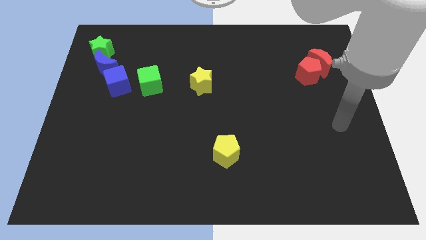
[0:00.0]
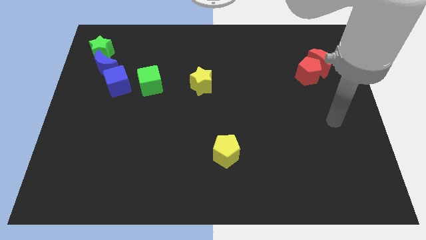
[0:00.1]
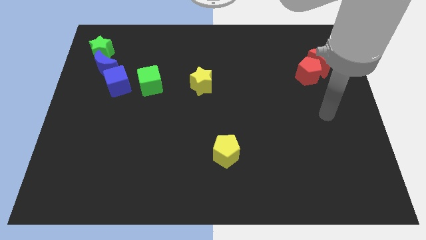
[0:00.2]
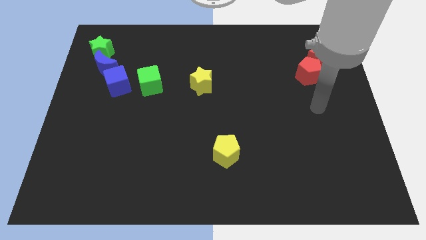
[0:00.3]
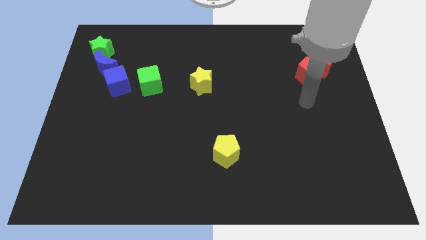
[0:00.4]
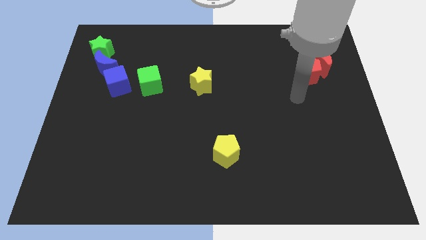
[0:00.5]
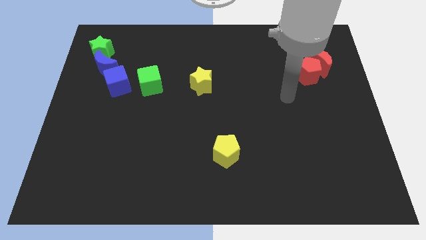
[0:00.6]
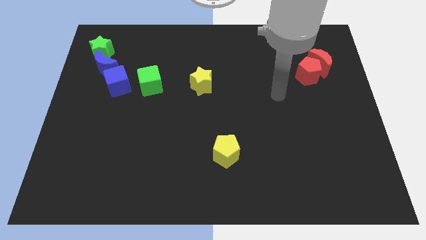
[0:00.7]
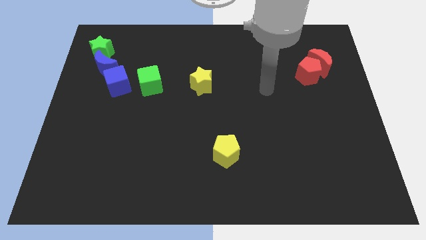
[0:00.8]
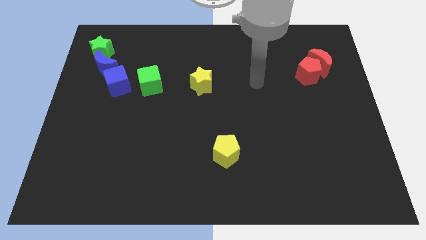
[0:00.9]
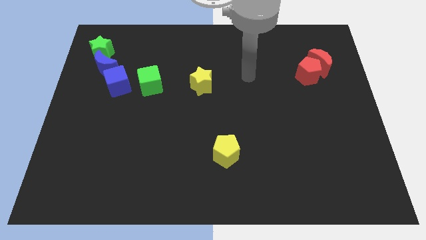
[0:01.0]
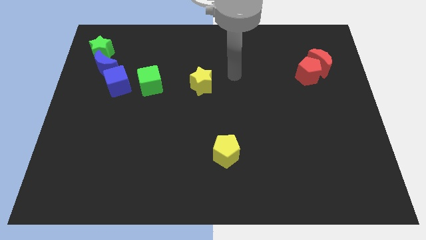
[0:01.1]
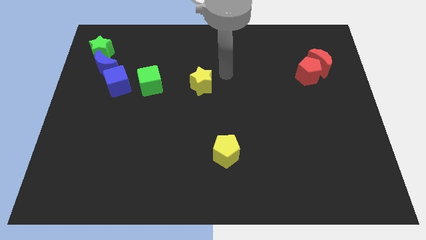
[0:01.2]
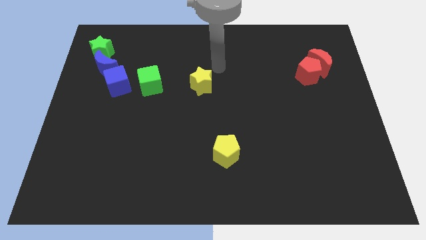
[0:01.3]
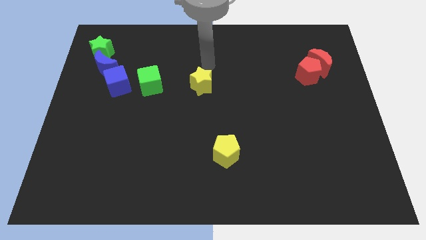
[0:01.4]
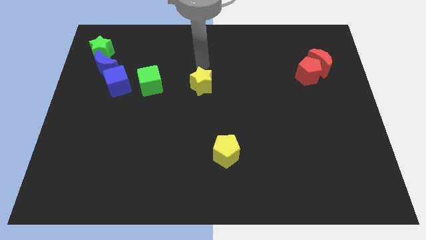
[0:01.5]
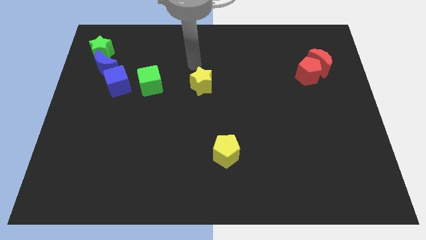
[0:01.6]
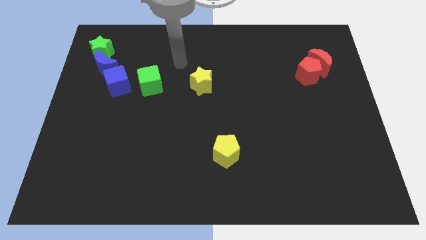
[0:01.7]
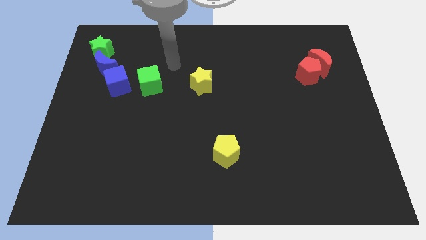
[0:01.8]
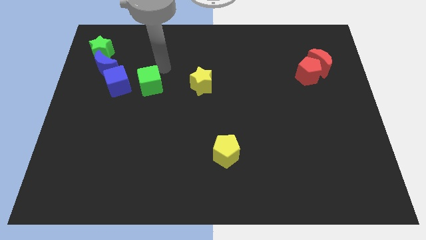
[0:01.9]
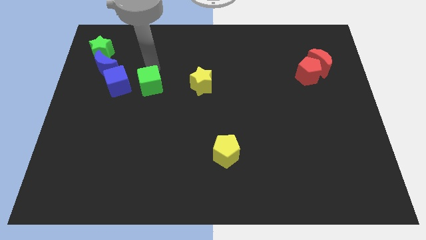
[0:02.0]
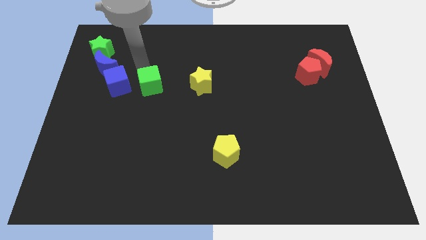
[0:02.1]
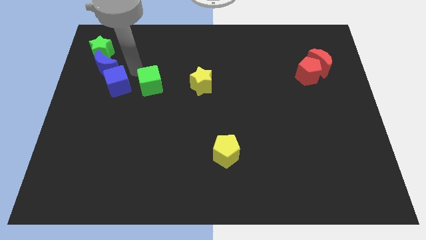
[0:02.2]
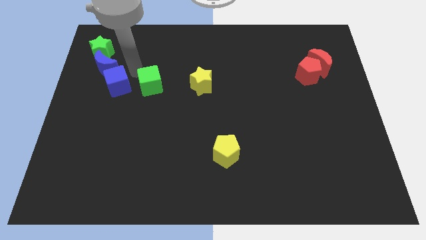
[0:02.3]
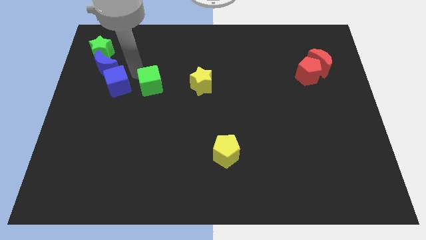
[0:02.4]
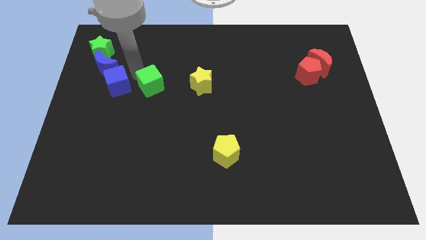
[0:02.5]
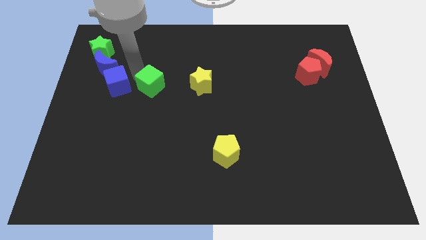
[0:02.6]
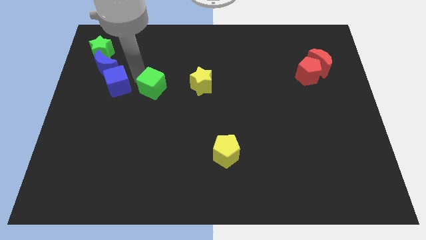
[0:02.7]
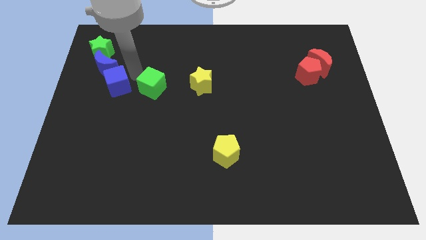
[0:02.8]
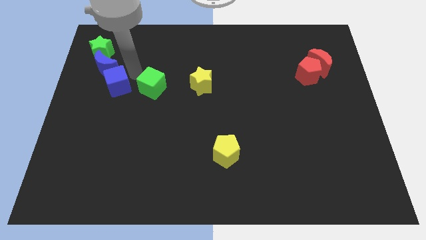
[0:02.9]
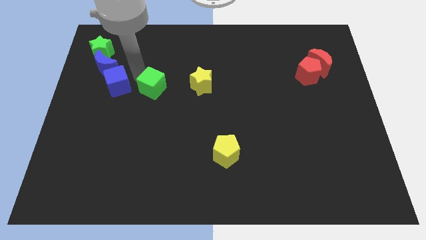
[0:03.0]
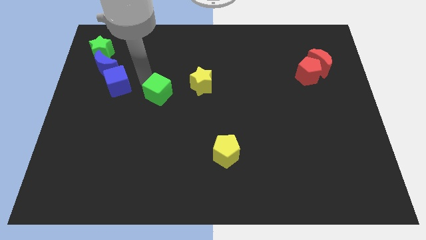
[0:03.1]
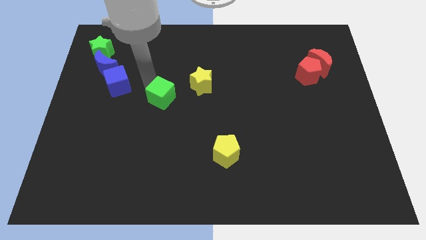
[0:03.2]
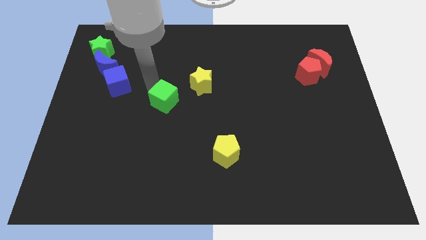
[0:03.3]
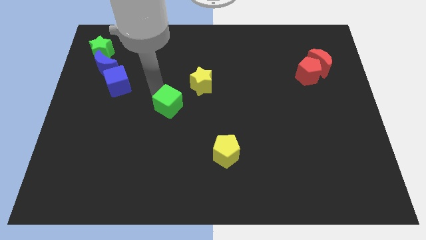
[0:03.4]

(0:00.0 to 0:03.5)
slightly slide the green cube diagonally down and to the right

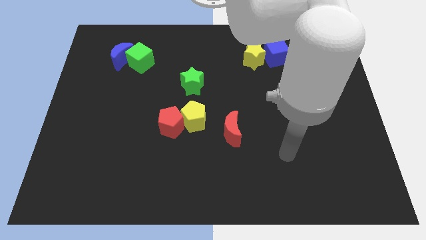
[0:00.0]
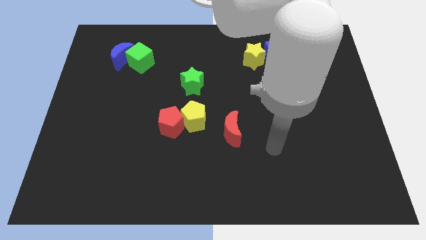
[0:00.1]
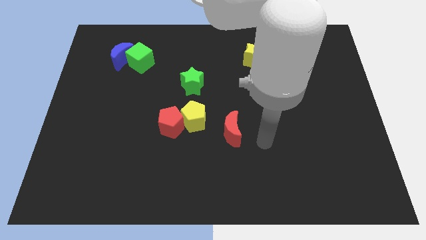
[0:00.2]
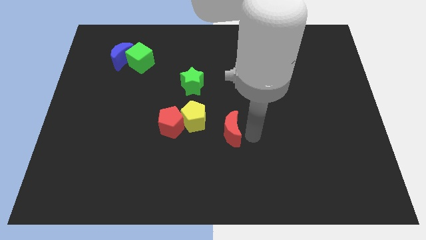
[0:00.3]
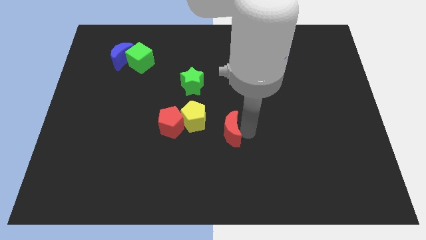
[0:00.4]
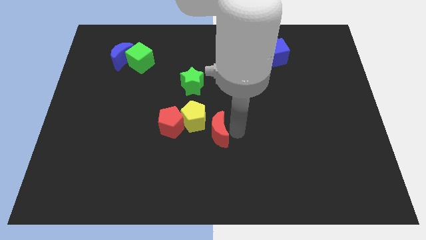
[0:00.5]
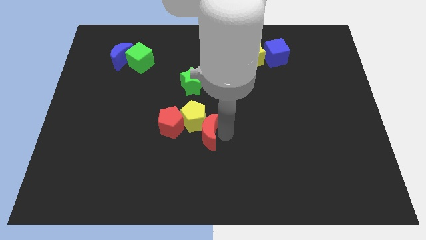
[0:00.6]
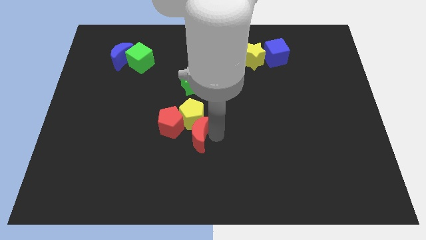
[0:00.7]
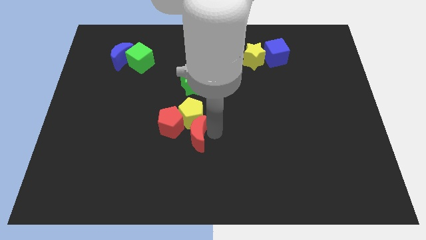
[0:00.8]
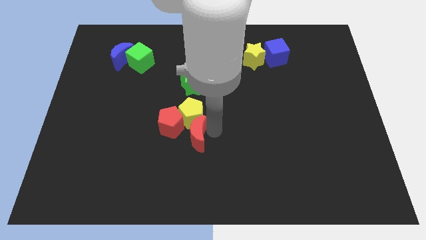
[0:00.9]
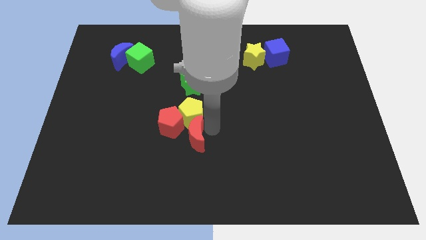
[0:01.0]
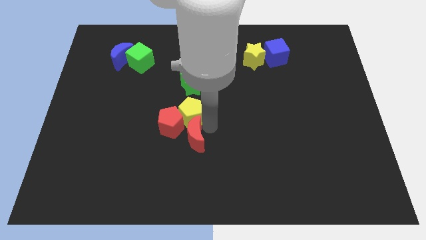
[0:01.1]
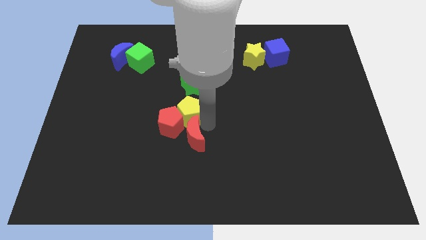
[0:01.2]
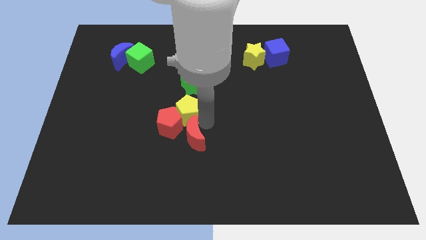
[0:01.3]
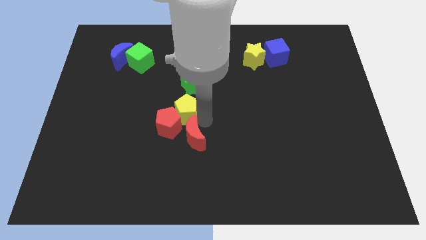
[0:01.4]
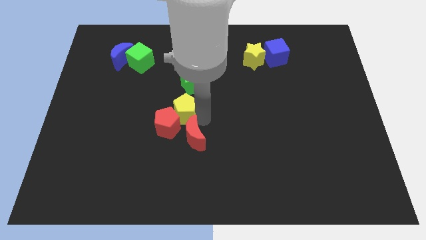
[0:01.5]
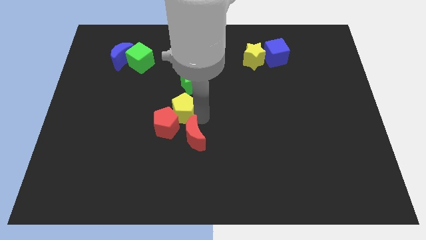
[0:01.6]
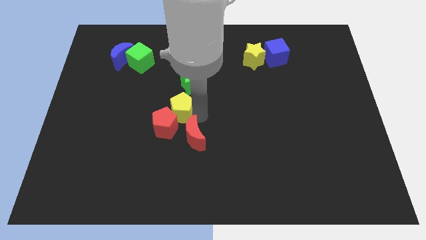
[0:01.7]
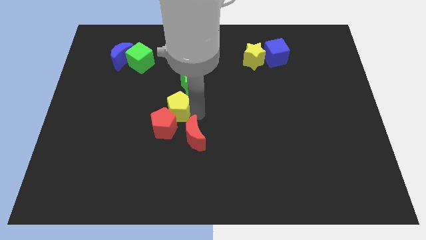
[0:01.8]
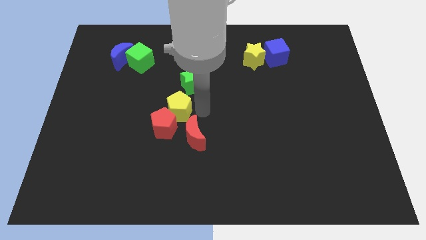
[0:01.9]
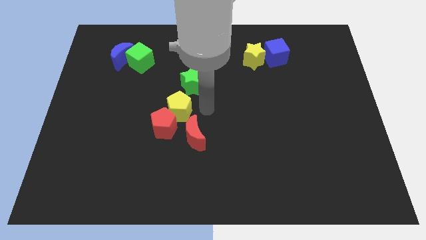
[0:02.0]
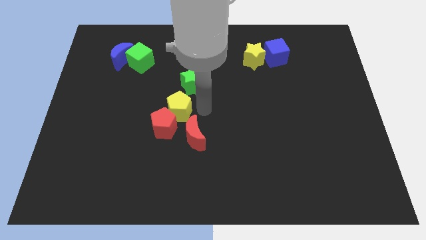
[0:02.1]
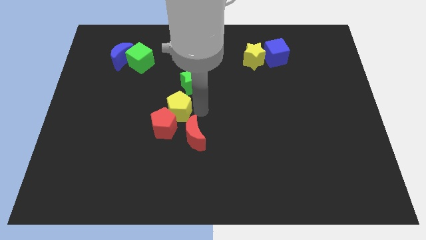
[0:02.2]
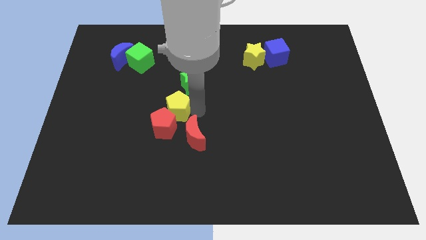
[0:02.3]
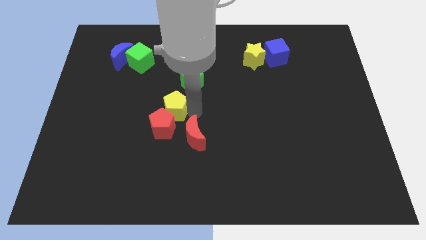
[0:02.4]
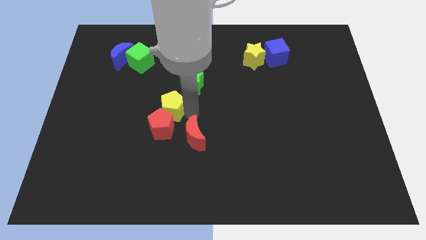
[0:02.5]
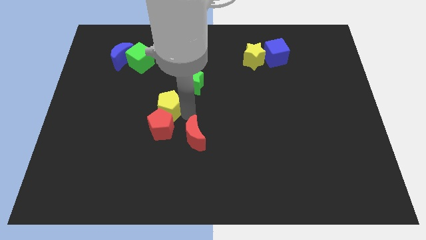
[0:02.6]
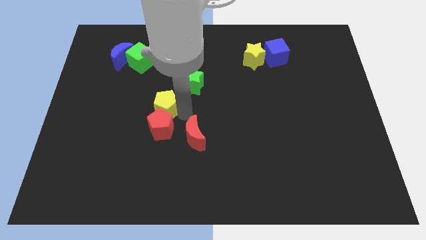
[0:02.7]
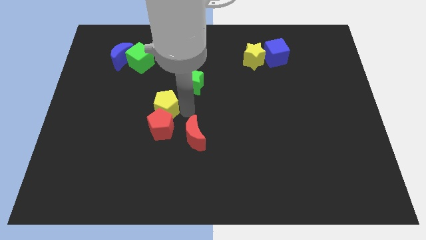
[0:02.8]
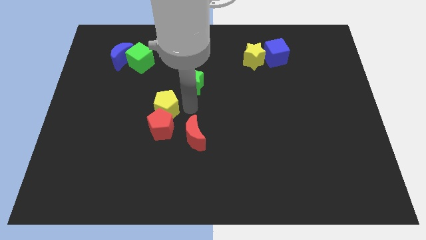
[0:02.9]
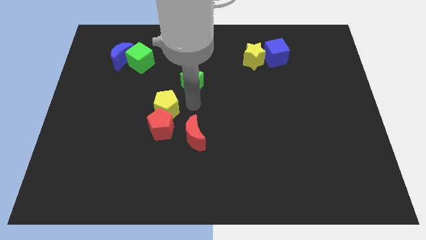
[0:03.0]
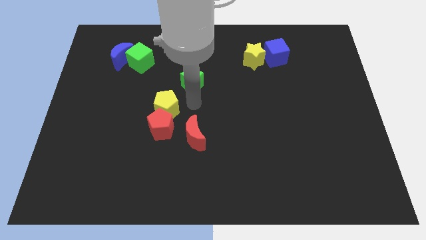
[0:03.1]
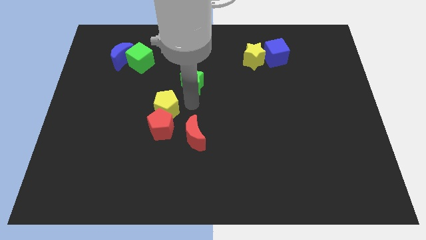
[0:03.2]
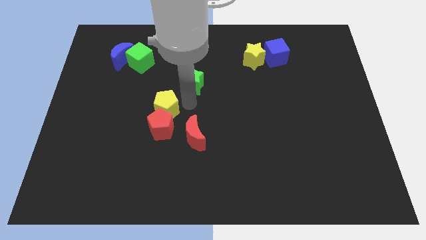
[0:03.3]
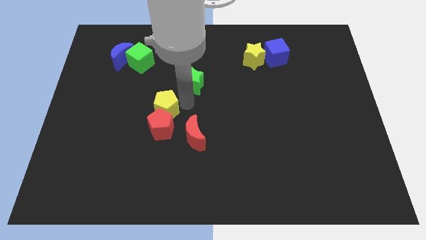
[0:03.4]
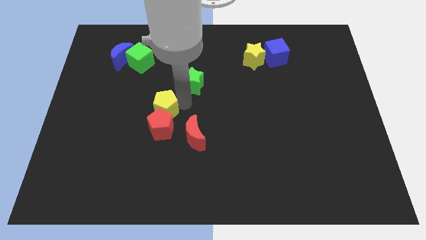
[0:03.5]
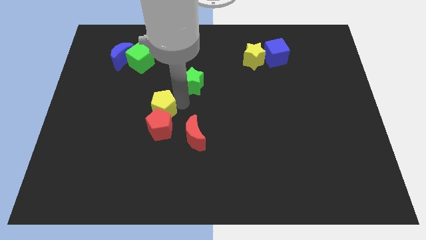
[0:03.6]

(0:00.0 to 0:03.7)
slide the yellow pentagon to the left slightly

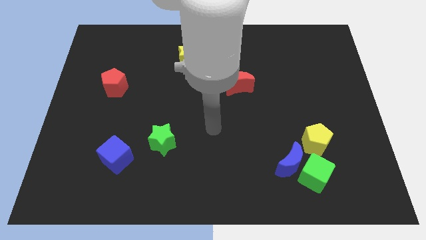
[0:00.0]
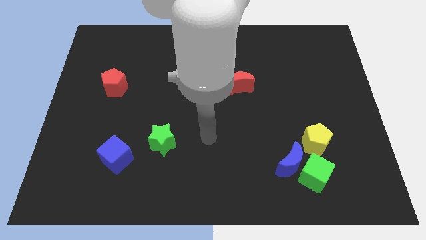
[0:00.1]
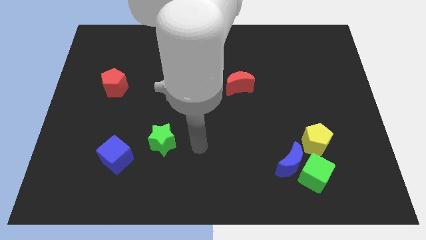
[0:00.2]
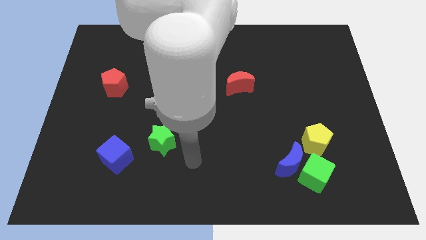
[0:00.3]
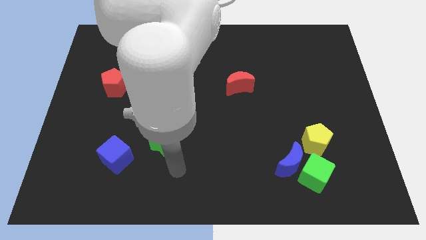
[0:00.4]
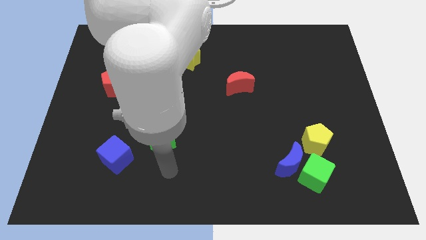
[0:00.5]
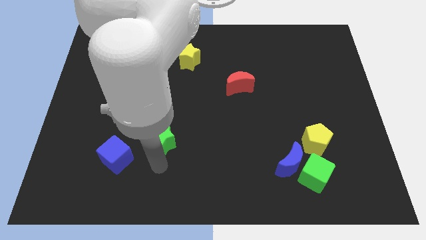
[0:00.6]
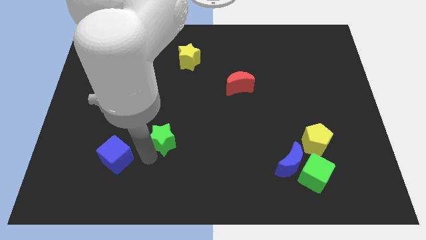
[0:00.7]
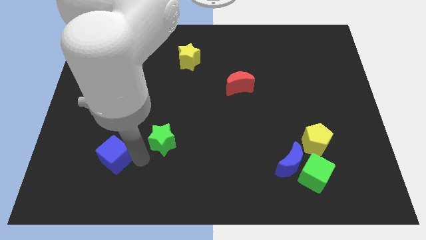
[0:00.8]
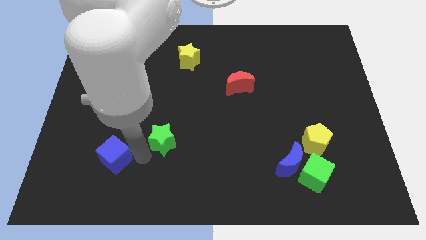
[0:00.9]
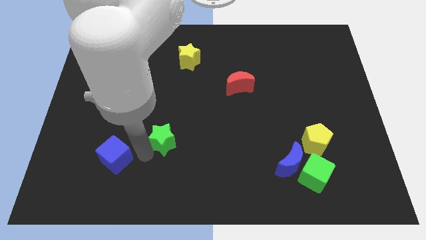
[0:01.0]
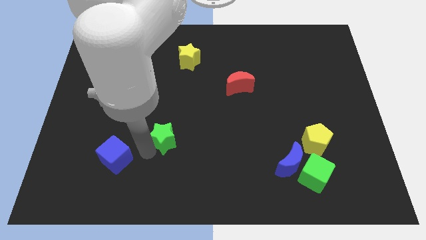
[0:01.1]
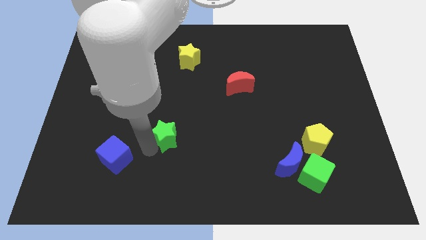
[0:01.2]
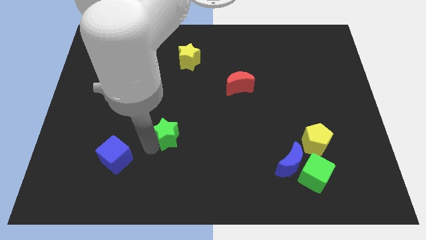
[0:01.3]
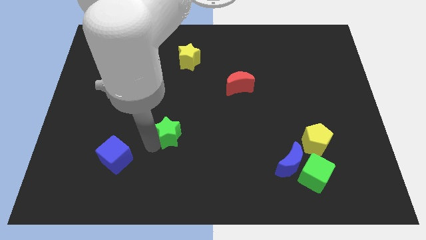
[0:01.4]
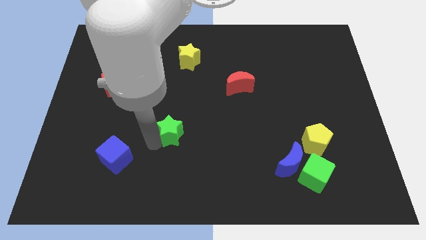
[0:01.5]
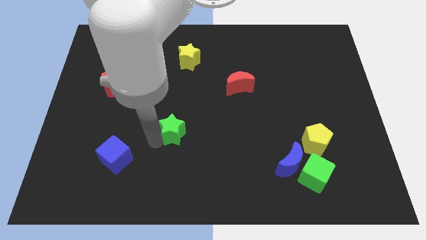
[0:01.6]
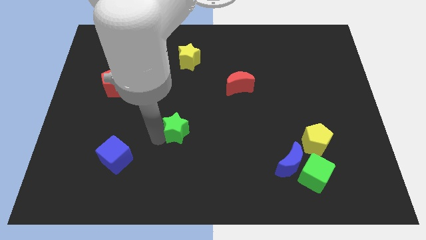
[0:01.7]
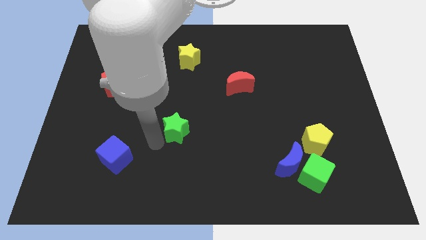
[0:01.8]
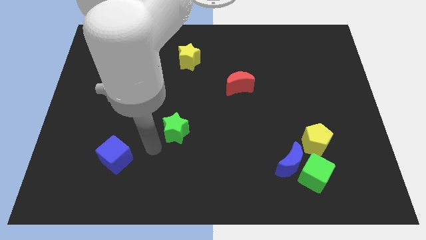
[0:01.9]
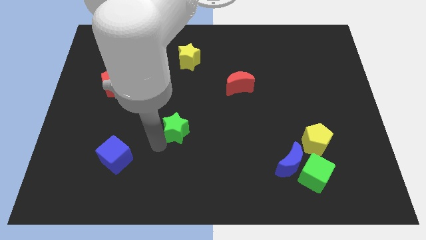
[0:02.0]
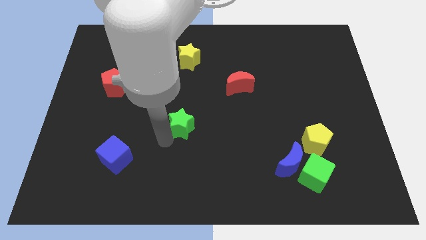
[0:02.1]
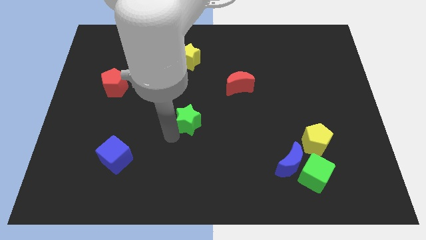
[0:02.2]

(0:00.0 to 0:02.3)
push the green star a bit up and right diagonally
